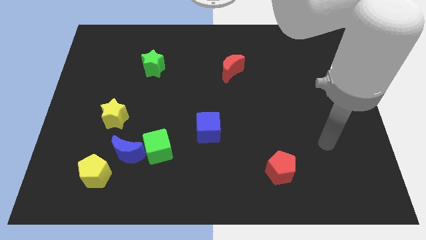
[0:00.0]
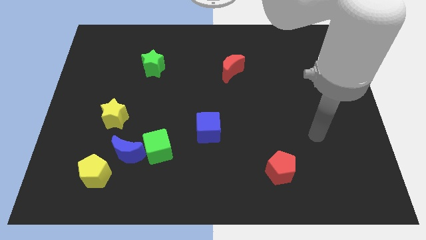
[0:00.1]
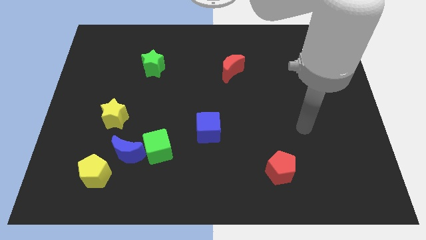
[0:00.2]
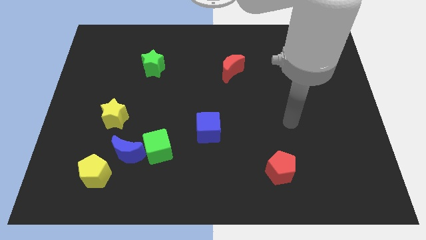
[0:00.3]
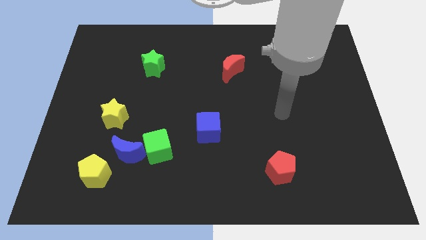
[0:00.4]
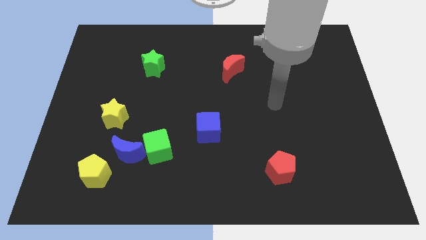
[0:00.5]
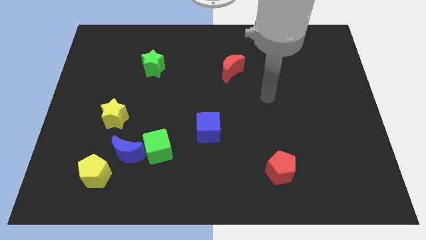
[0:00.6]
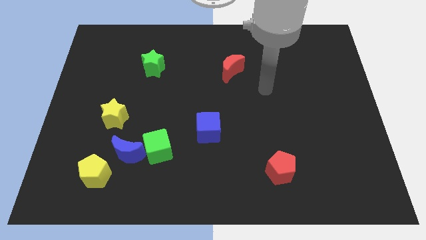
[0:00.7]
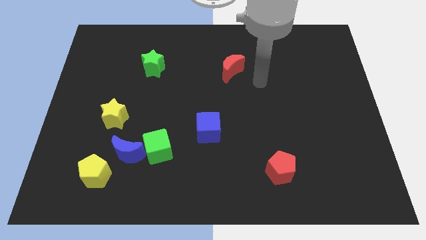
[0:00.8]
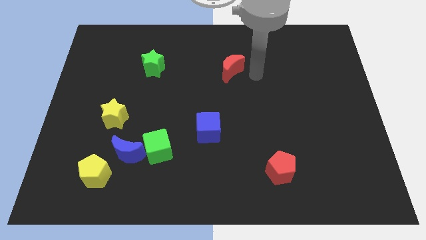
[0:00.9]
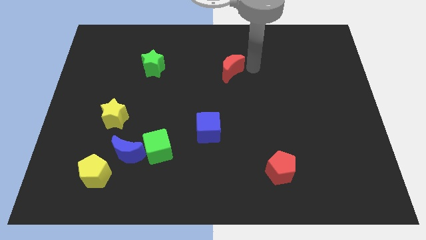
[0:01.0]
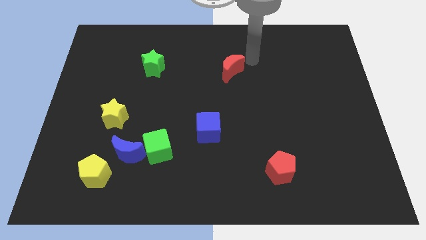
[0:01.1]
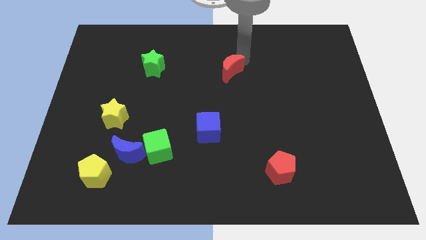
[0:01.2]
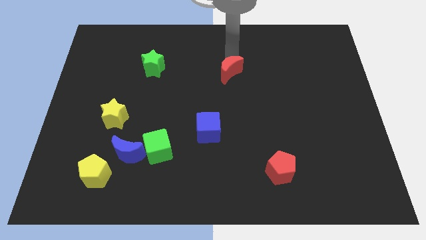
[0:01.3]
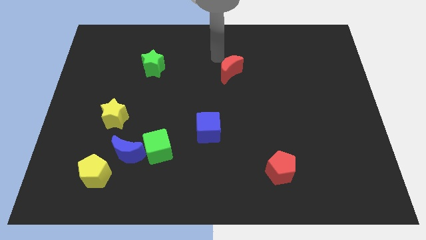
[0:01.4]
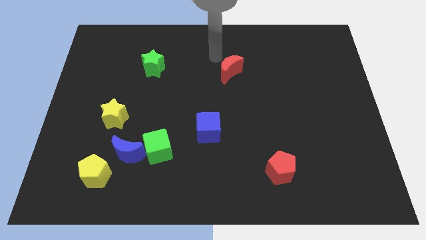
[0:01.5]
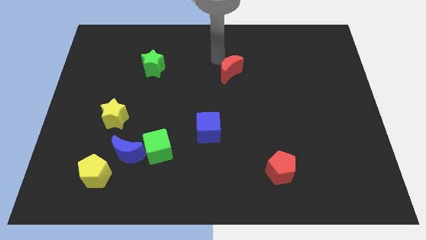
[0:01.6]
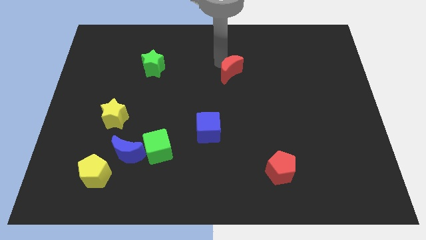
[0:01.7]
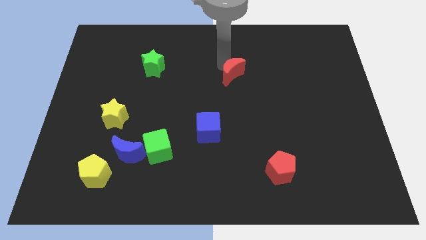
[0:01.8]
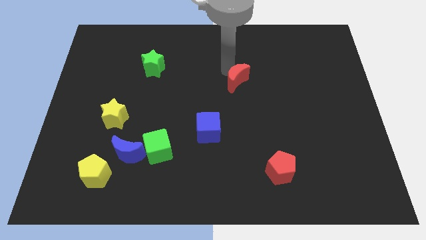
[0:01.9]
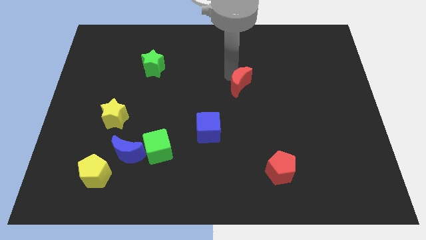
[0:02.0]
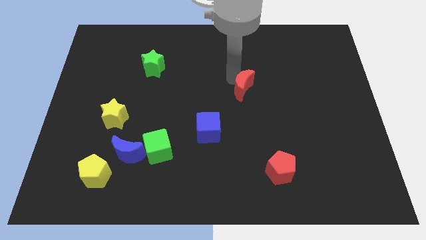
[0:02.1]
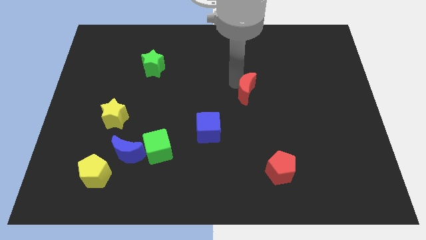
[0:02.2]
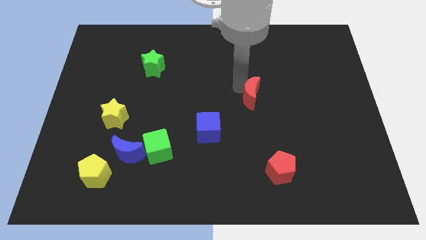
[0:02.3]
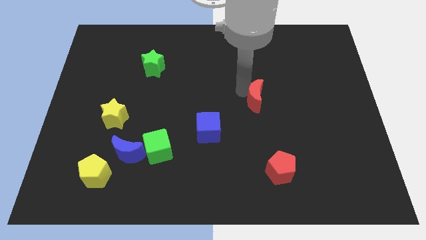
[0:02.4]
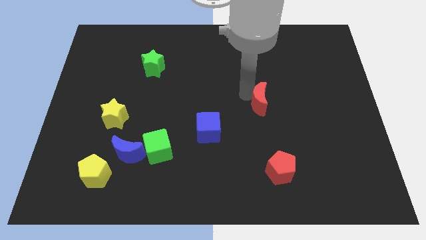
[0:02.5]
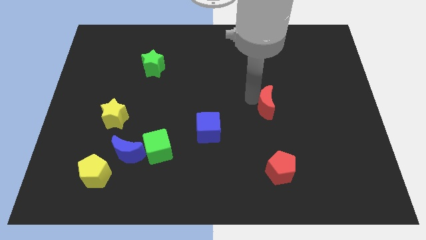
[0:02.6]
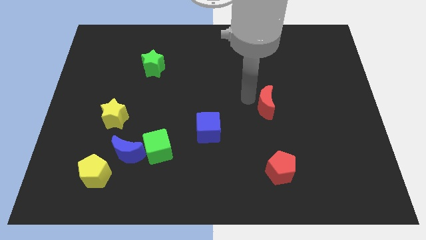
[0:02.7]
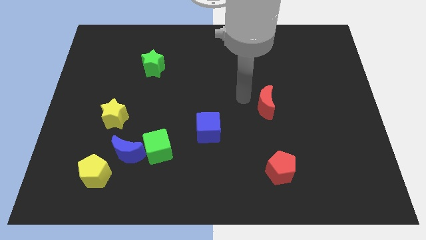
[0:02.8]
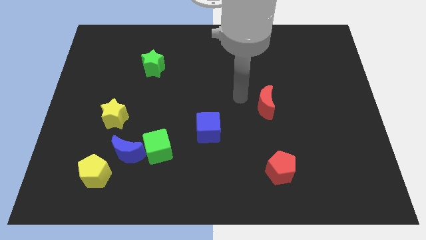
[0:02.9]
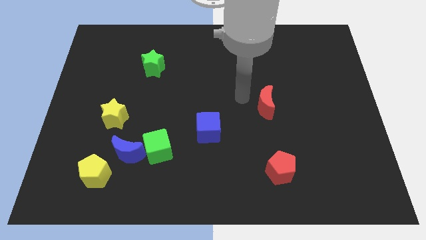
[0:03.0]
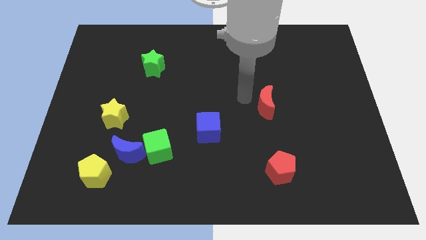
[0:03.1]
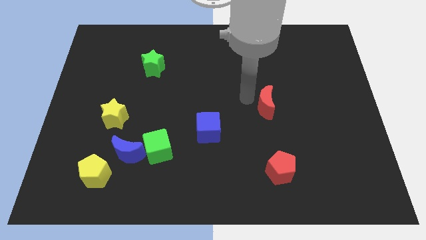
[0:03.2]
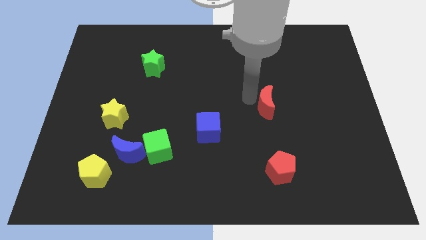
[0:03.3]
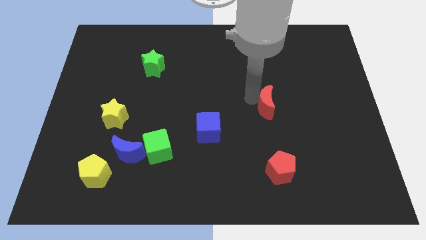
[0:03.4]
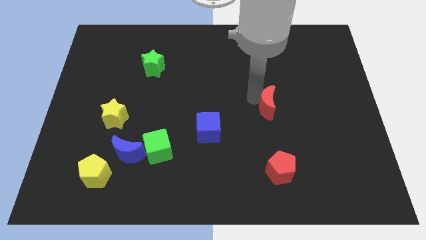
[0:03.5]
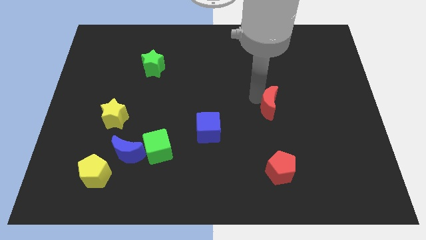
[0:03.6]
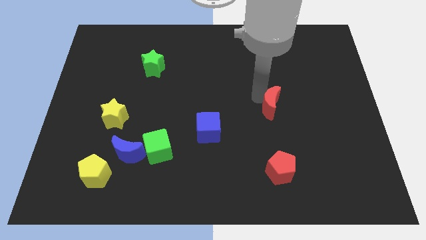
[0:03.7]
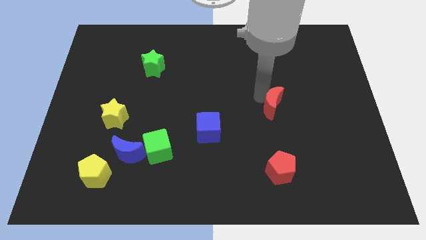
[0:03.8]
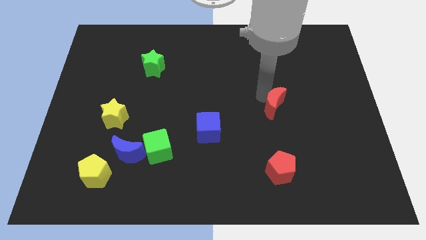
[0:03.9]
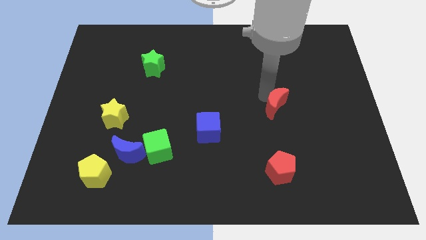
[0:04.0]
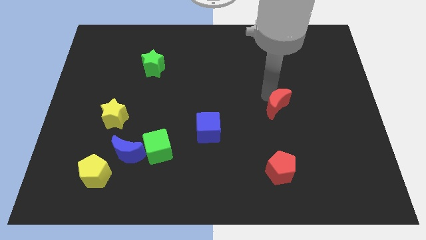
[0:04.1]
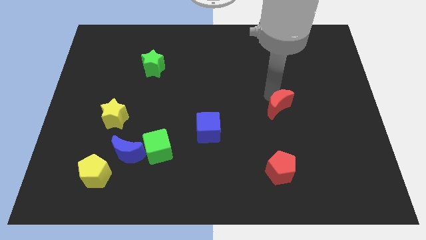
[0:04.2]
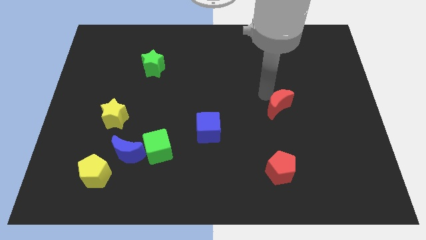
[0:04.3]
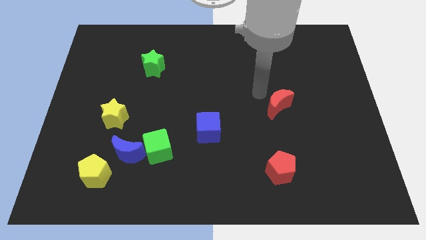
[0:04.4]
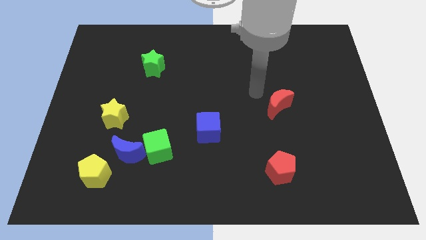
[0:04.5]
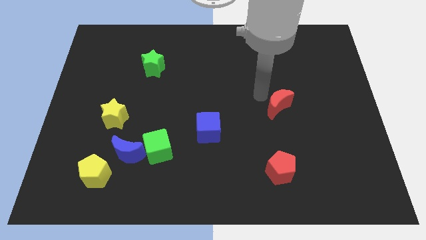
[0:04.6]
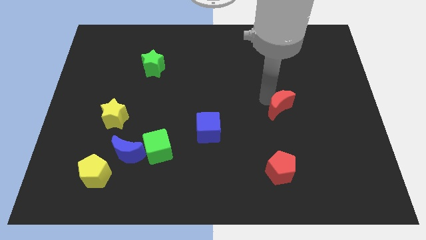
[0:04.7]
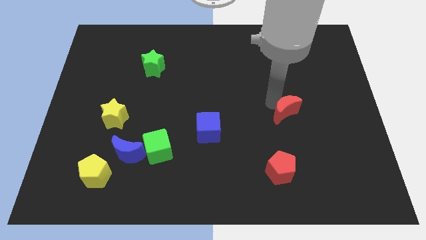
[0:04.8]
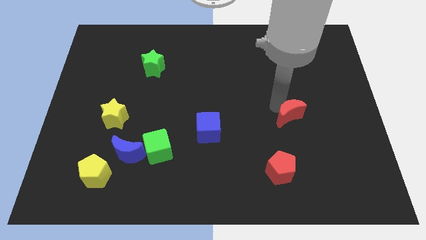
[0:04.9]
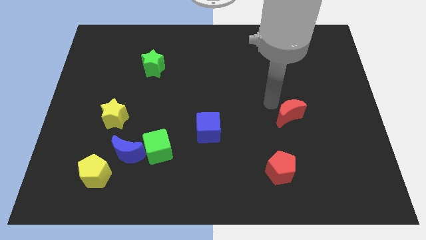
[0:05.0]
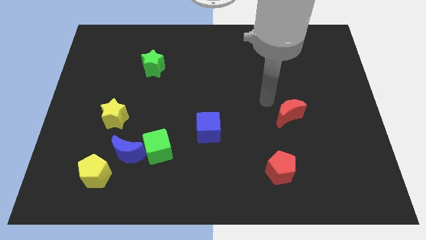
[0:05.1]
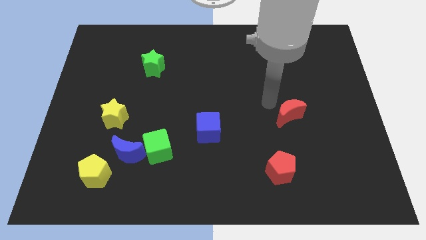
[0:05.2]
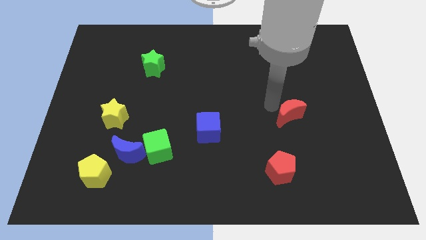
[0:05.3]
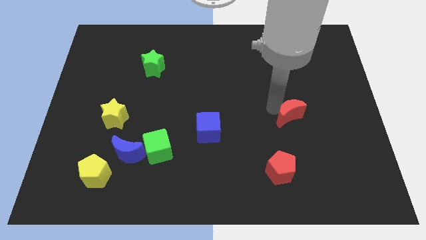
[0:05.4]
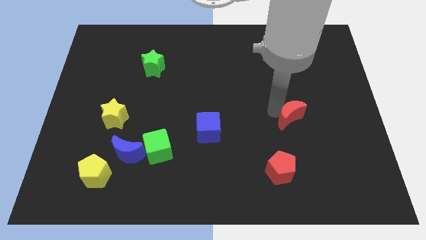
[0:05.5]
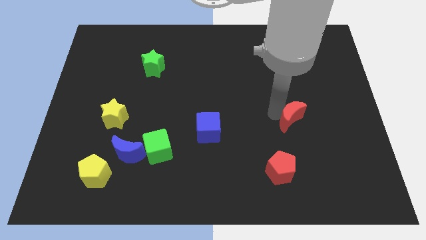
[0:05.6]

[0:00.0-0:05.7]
push the red moon down and to the right

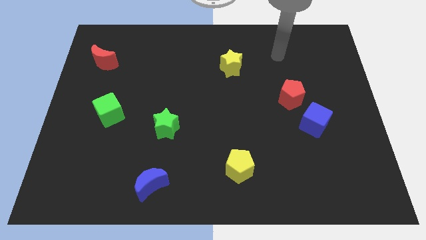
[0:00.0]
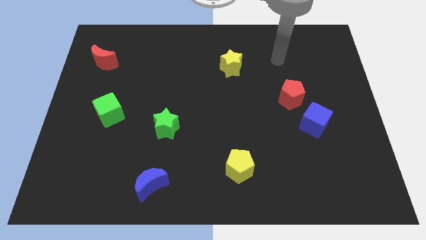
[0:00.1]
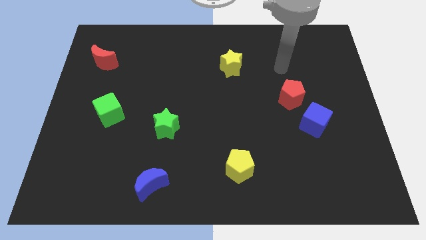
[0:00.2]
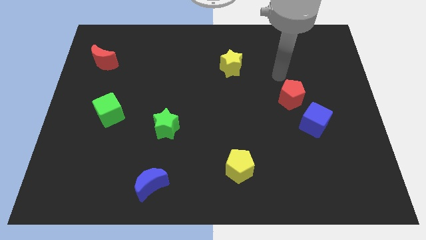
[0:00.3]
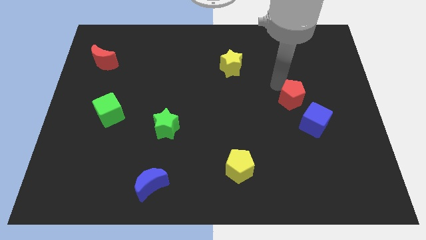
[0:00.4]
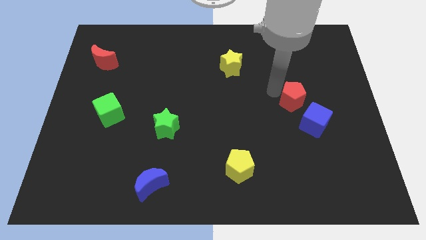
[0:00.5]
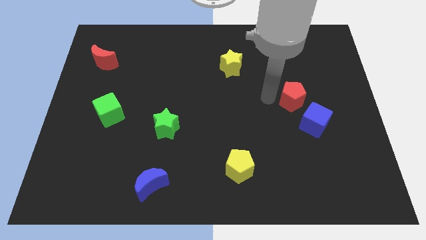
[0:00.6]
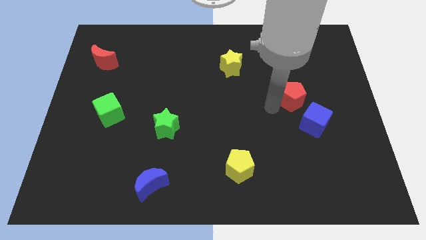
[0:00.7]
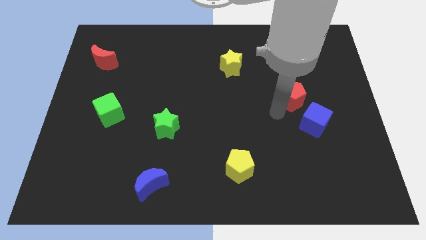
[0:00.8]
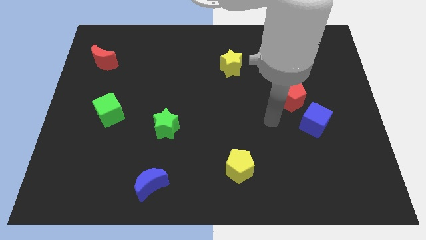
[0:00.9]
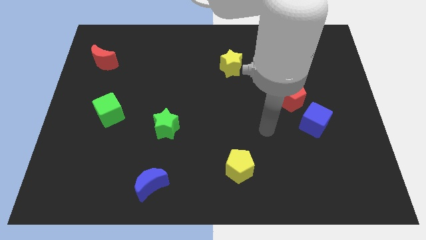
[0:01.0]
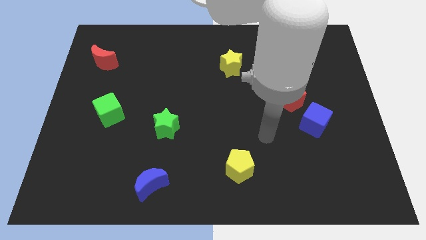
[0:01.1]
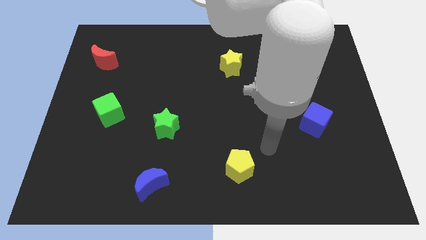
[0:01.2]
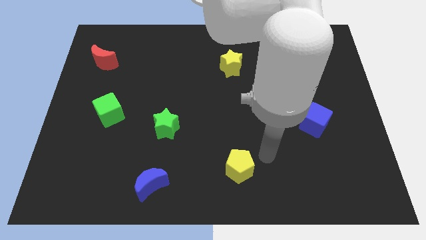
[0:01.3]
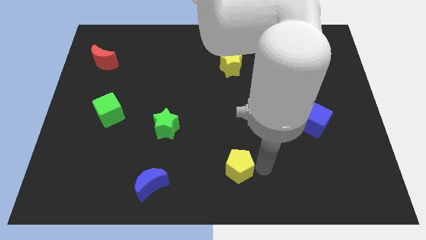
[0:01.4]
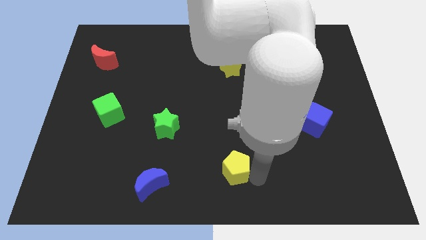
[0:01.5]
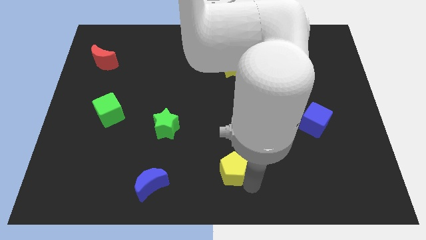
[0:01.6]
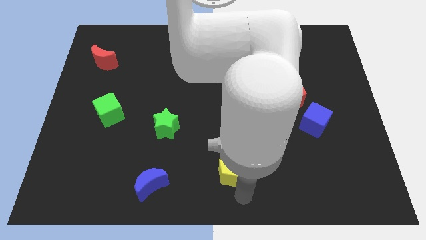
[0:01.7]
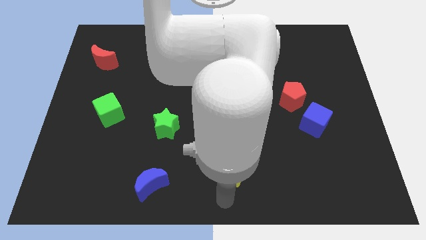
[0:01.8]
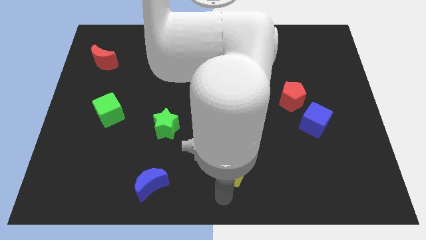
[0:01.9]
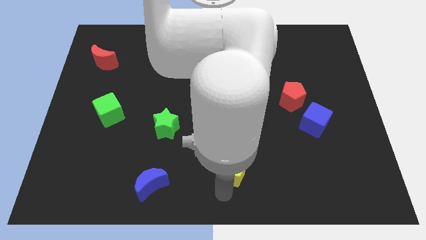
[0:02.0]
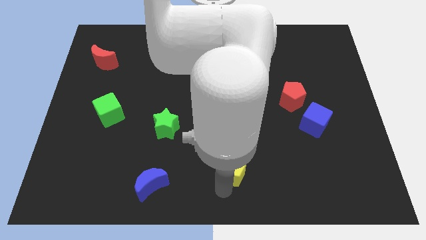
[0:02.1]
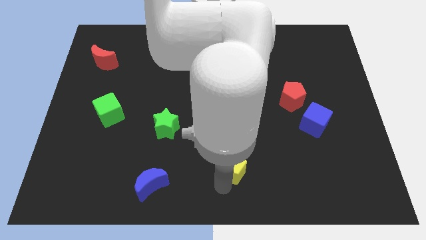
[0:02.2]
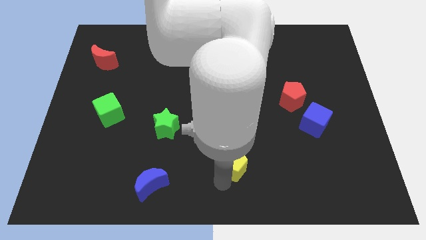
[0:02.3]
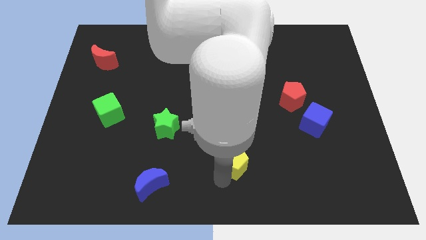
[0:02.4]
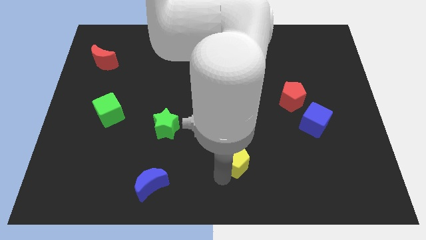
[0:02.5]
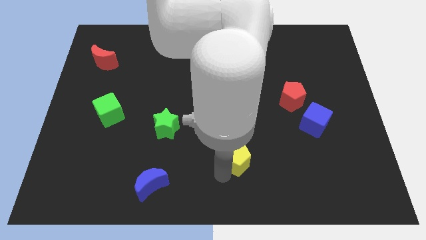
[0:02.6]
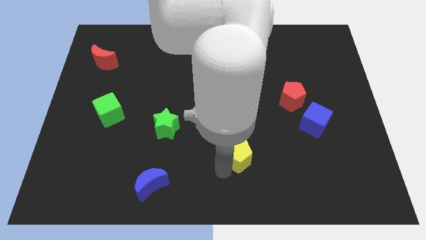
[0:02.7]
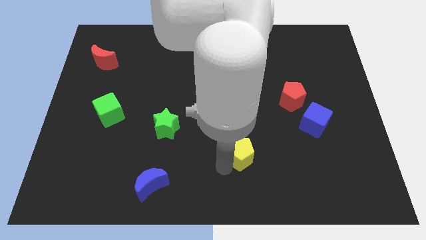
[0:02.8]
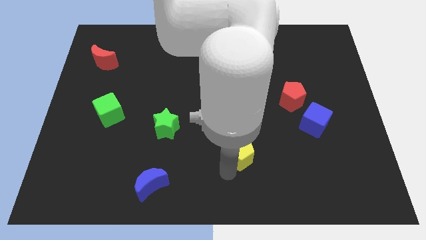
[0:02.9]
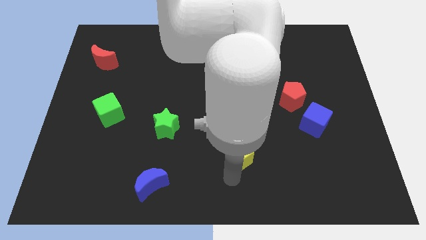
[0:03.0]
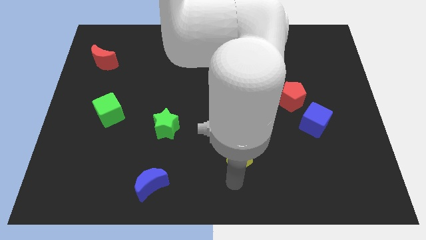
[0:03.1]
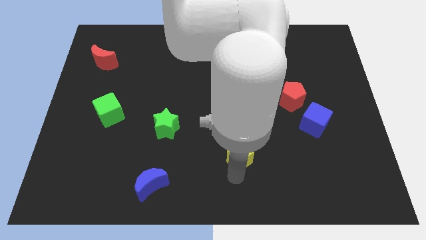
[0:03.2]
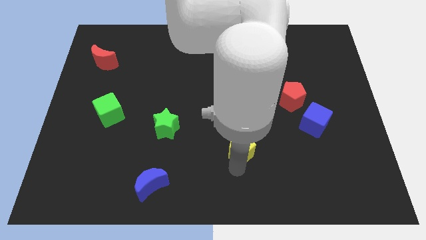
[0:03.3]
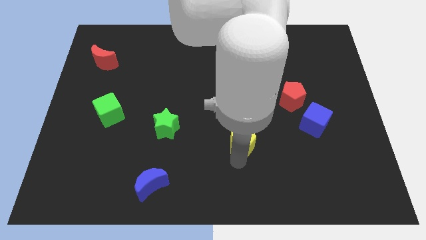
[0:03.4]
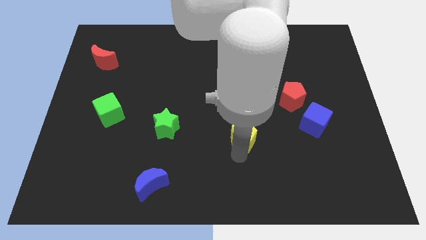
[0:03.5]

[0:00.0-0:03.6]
slide the yellow pentagon somewhat upwards
